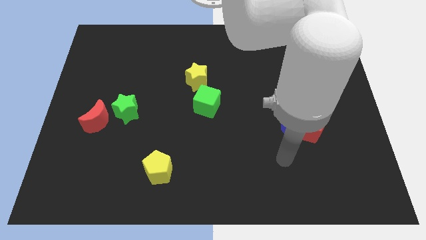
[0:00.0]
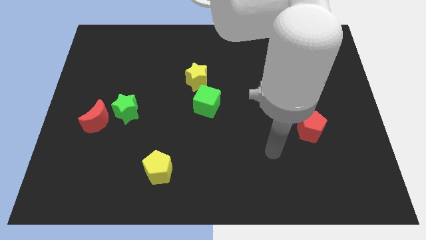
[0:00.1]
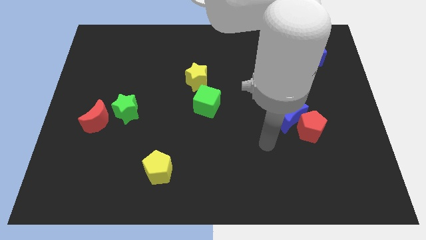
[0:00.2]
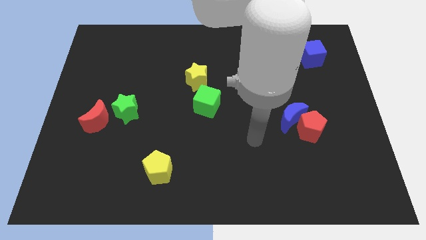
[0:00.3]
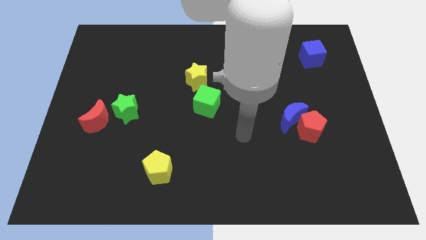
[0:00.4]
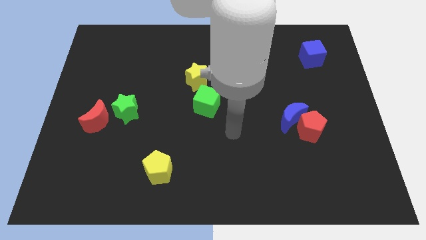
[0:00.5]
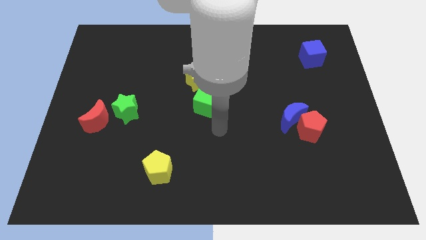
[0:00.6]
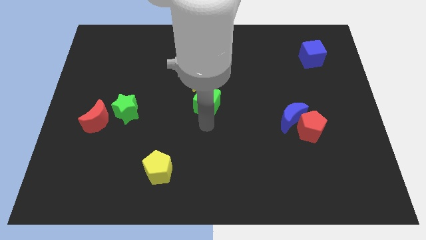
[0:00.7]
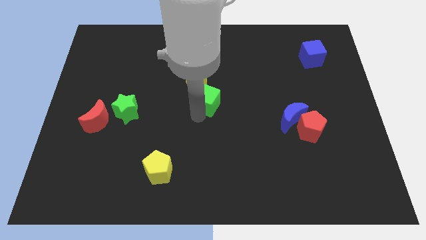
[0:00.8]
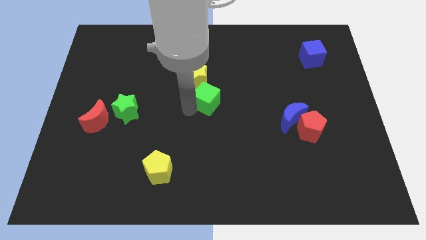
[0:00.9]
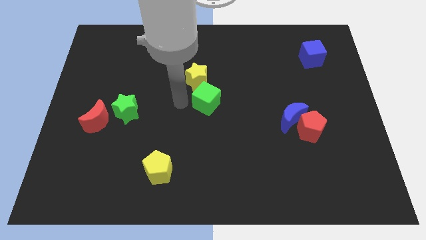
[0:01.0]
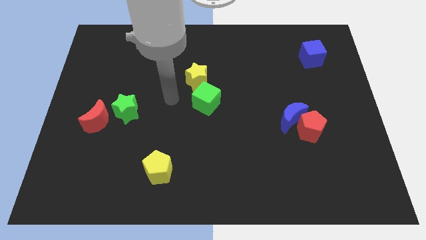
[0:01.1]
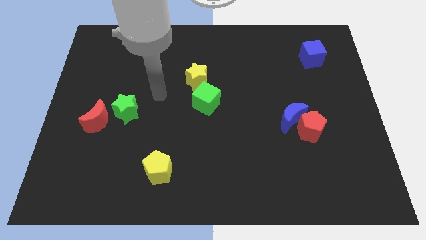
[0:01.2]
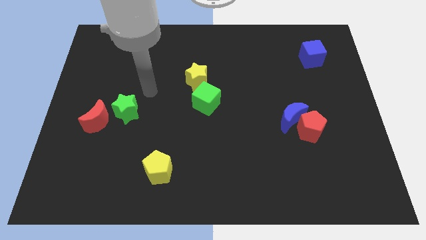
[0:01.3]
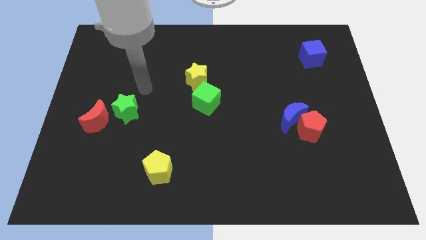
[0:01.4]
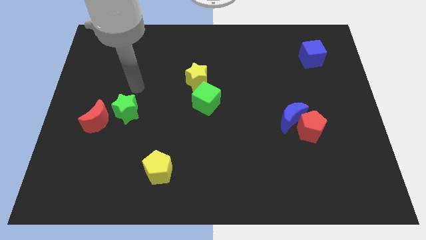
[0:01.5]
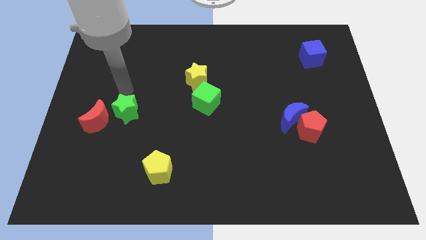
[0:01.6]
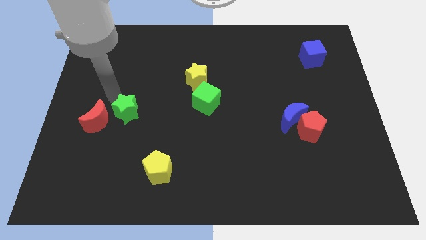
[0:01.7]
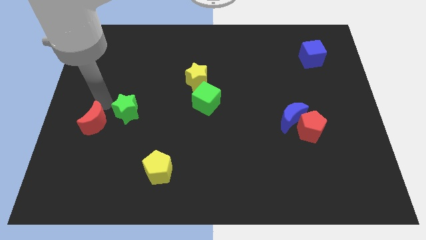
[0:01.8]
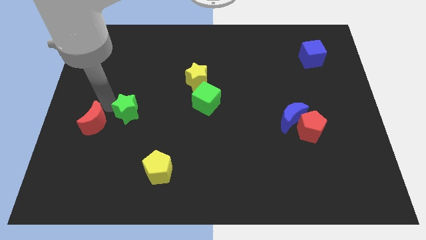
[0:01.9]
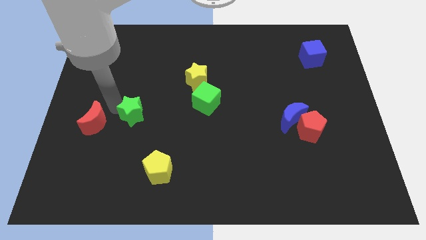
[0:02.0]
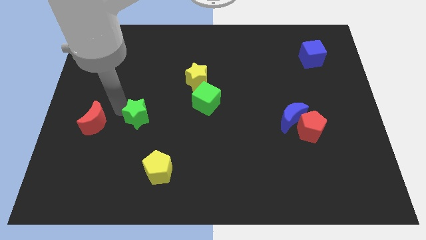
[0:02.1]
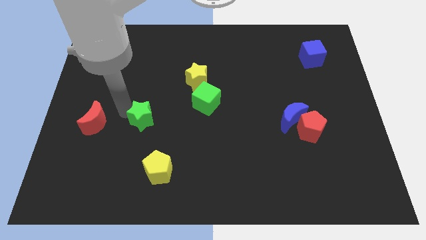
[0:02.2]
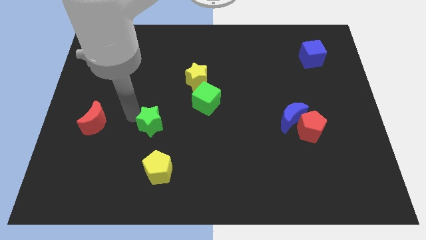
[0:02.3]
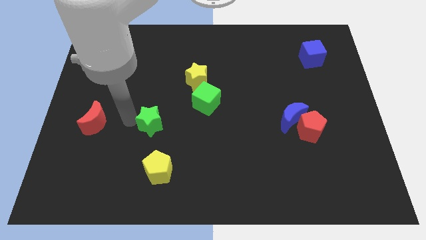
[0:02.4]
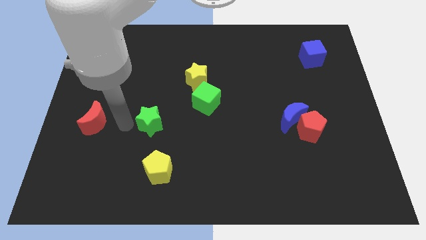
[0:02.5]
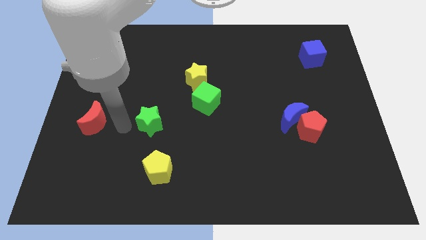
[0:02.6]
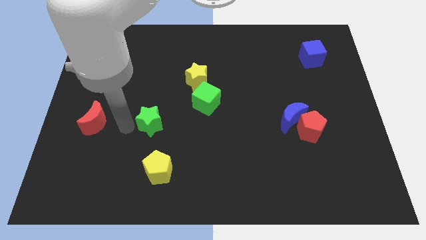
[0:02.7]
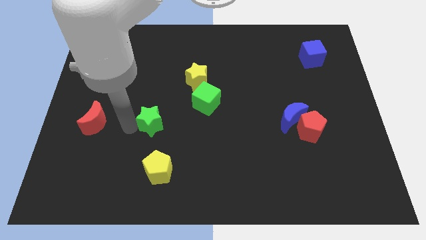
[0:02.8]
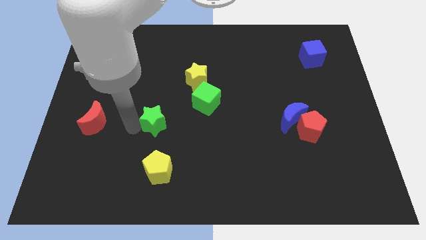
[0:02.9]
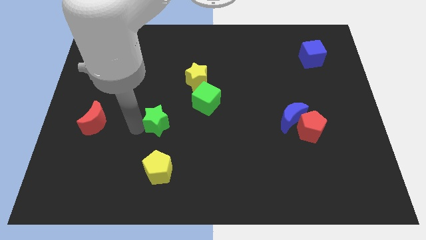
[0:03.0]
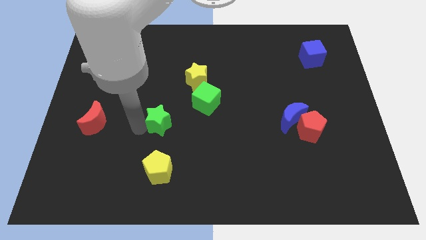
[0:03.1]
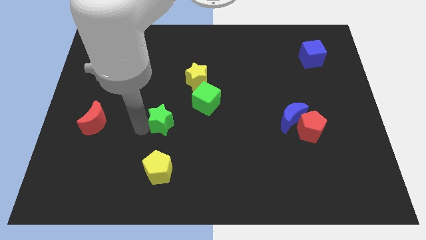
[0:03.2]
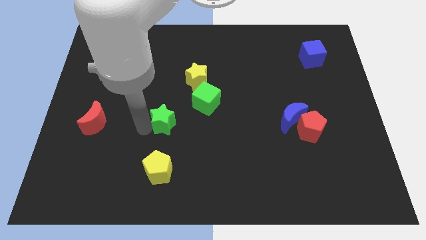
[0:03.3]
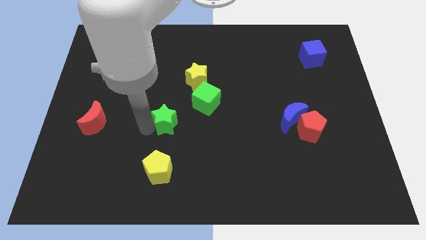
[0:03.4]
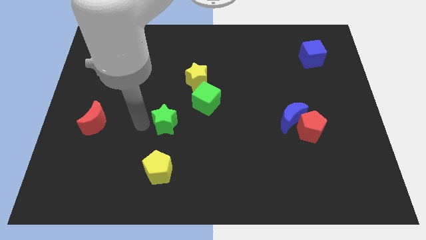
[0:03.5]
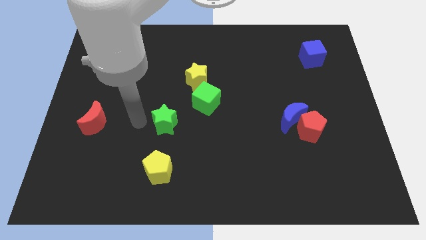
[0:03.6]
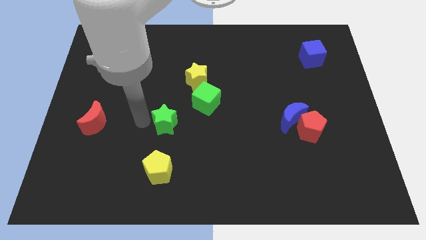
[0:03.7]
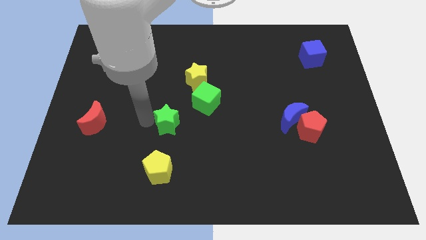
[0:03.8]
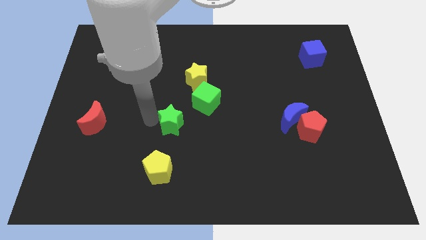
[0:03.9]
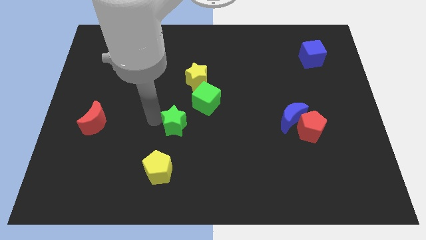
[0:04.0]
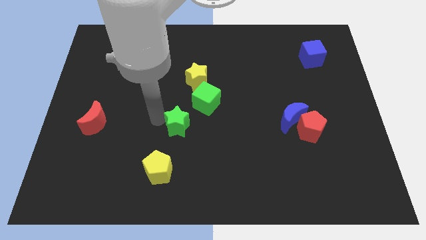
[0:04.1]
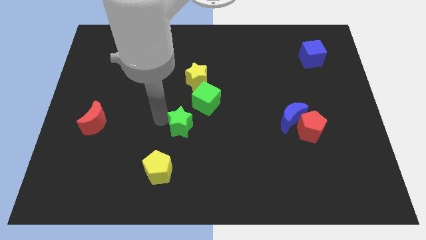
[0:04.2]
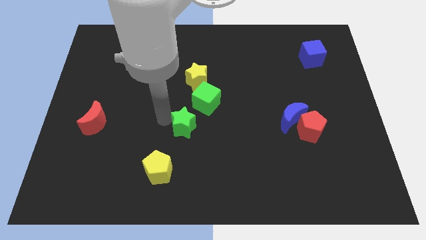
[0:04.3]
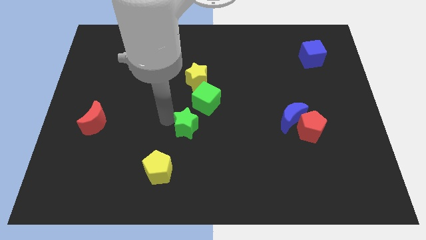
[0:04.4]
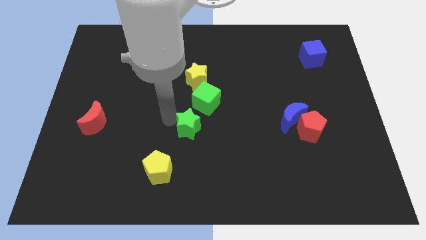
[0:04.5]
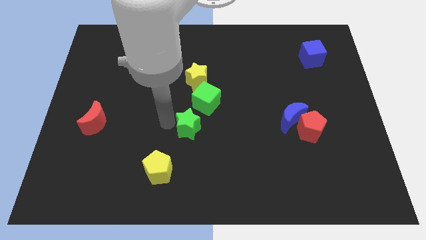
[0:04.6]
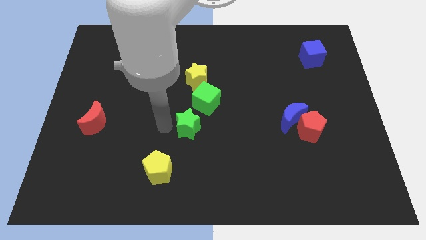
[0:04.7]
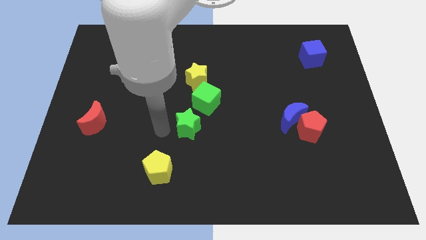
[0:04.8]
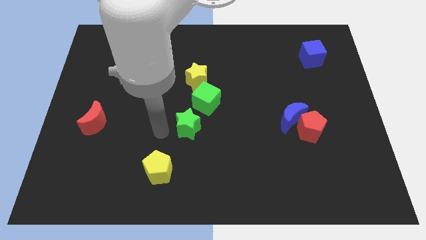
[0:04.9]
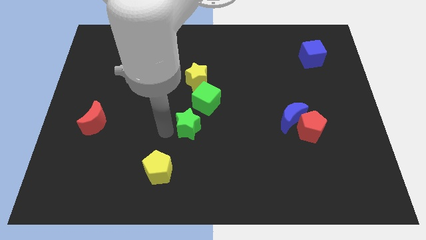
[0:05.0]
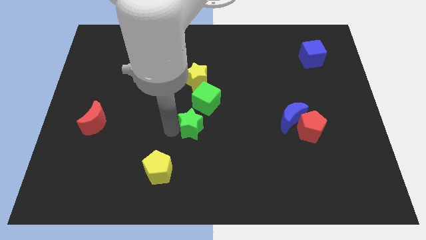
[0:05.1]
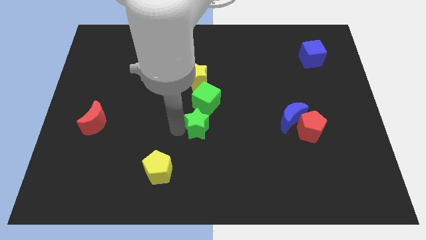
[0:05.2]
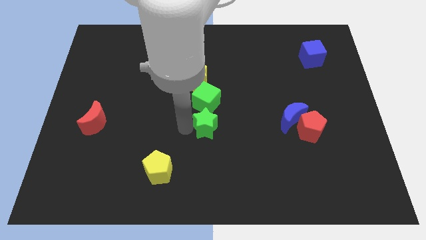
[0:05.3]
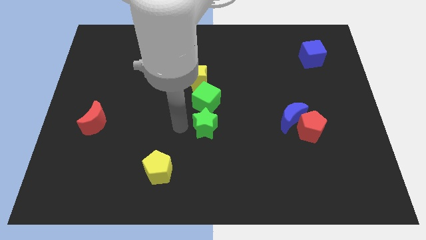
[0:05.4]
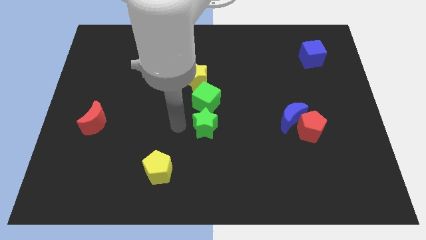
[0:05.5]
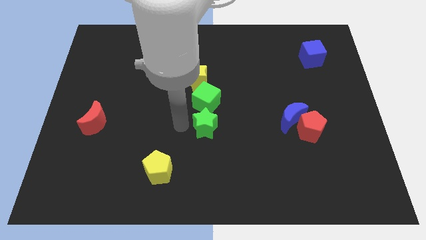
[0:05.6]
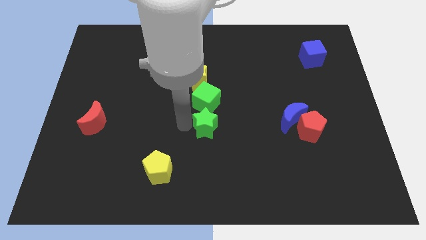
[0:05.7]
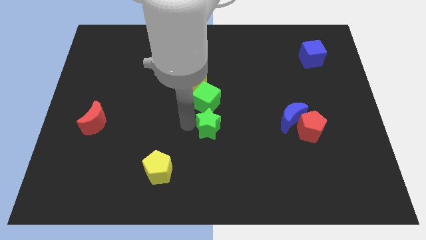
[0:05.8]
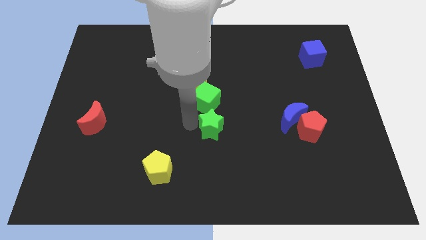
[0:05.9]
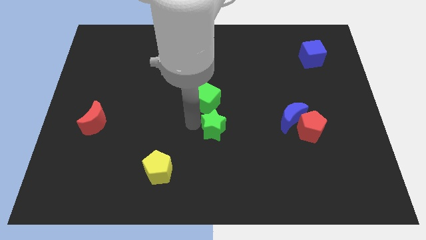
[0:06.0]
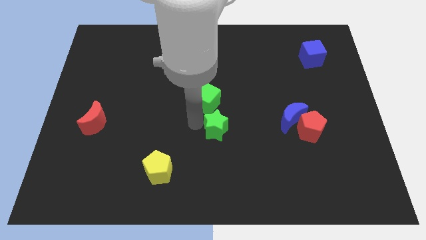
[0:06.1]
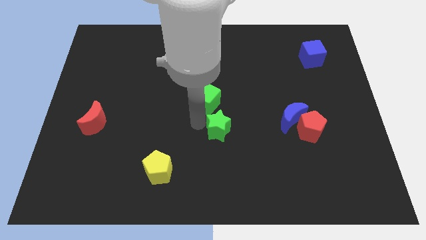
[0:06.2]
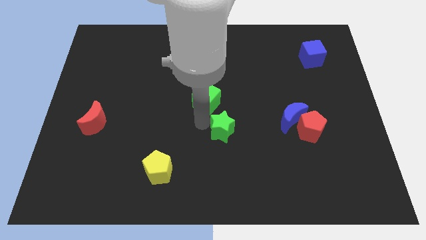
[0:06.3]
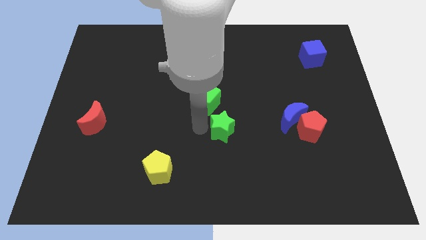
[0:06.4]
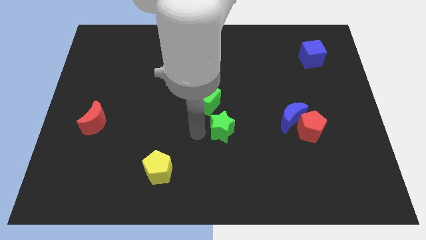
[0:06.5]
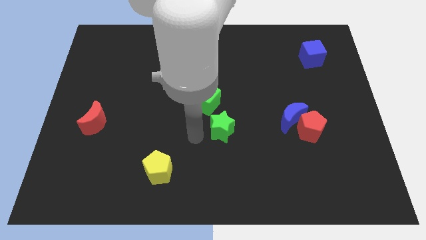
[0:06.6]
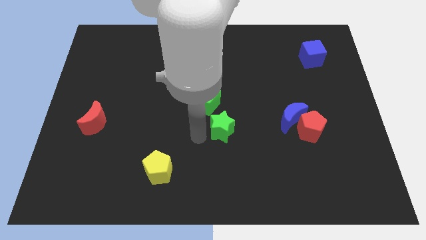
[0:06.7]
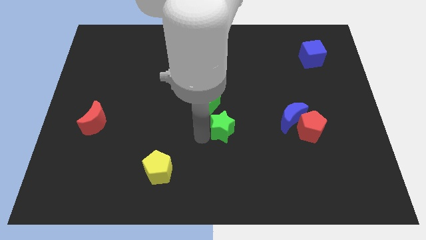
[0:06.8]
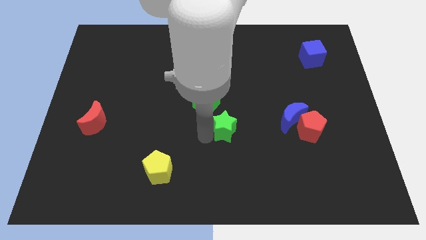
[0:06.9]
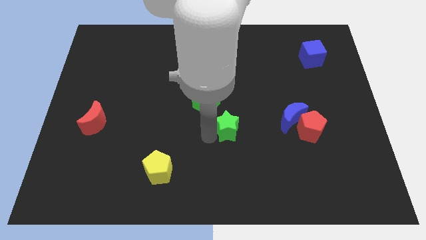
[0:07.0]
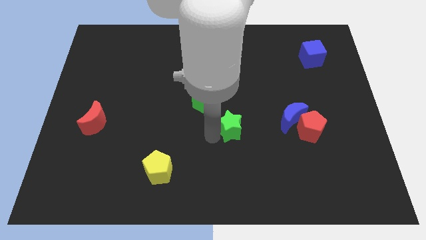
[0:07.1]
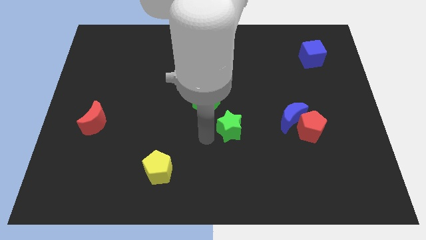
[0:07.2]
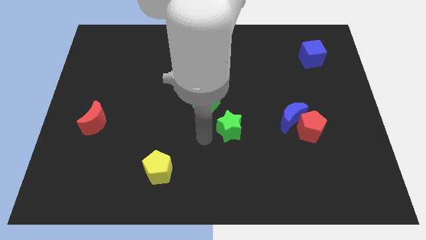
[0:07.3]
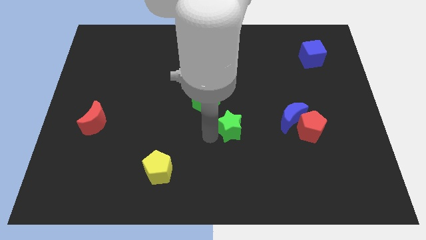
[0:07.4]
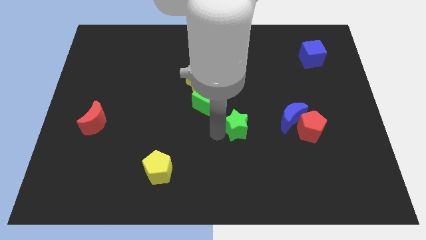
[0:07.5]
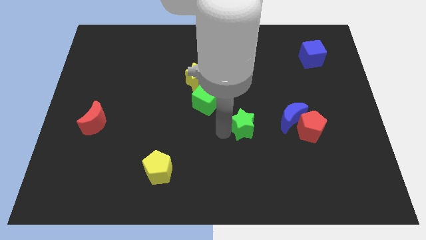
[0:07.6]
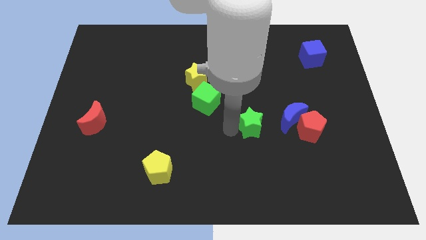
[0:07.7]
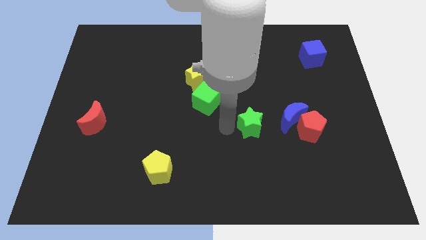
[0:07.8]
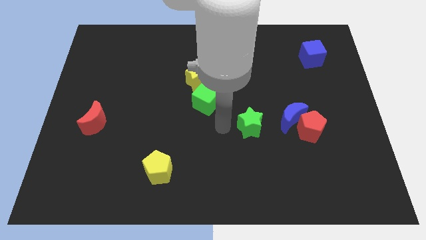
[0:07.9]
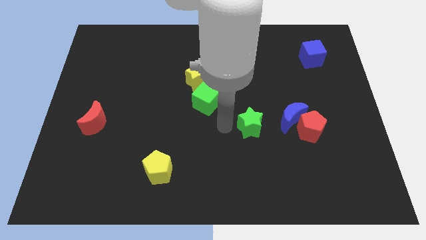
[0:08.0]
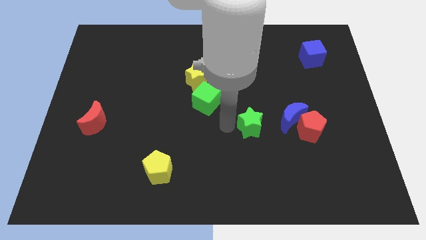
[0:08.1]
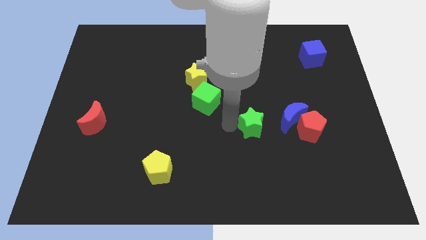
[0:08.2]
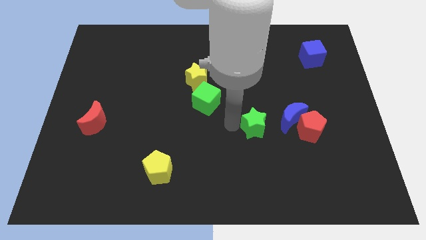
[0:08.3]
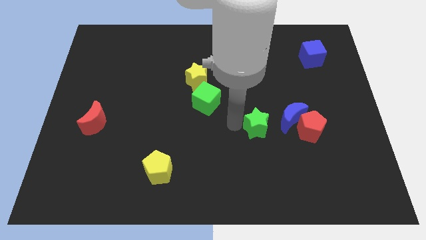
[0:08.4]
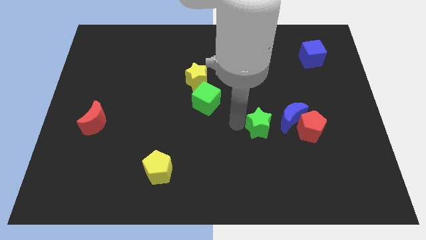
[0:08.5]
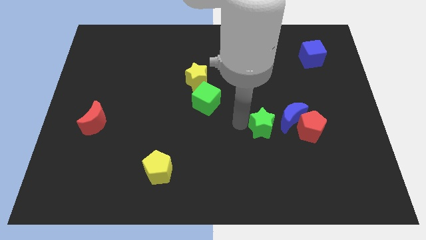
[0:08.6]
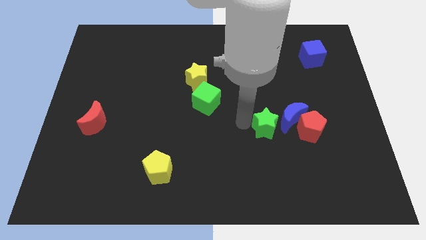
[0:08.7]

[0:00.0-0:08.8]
slide the green star next to the blue moon
